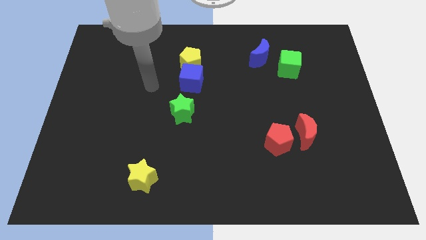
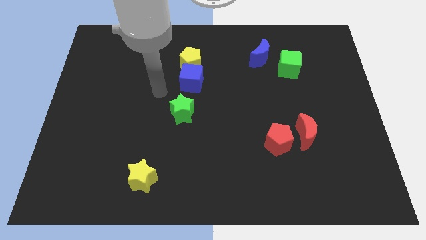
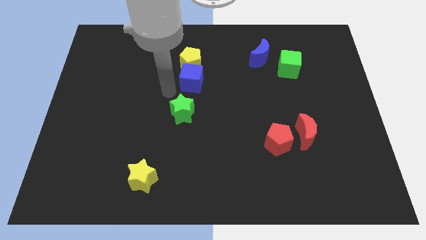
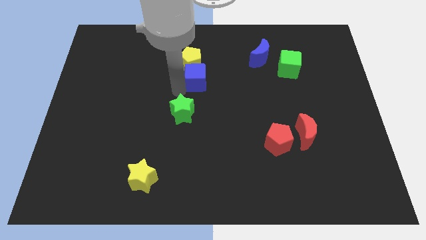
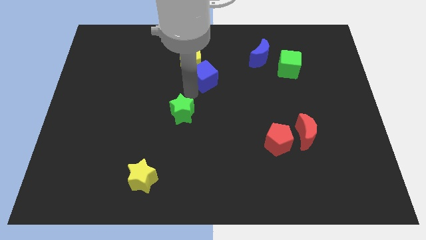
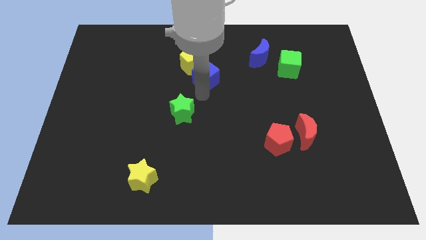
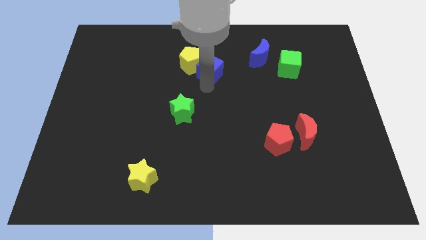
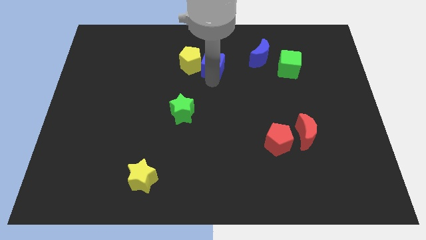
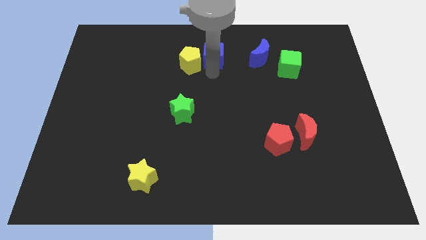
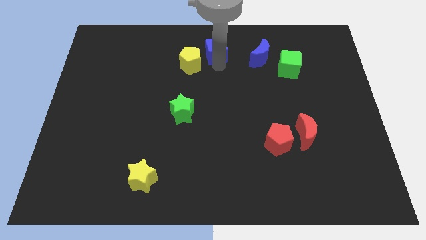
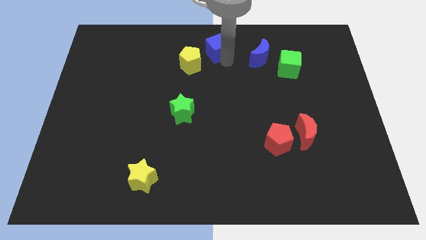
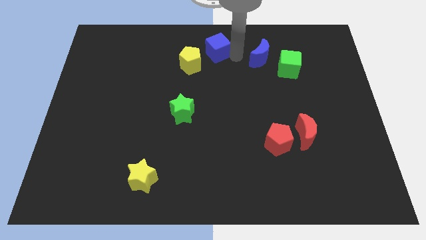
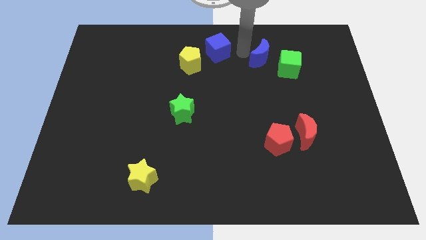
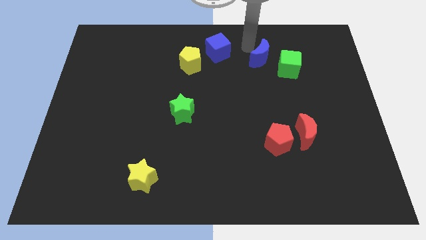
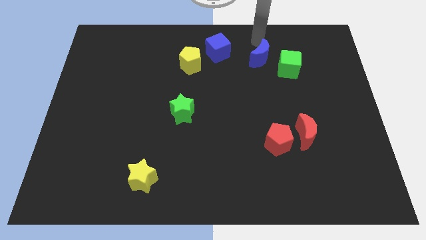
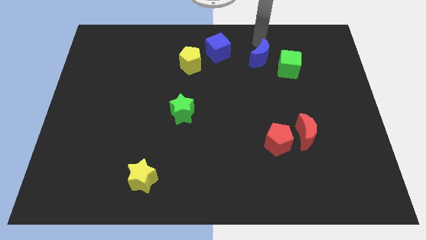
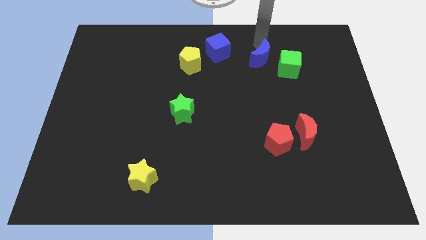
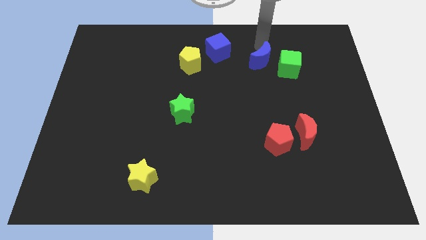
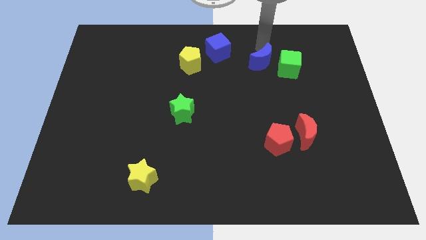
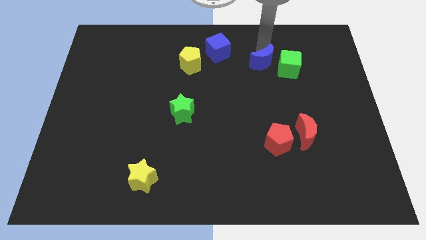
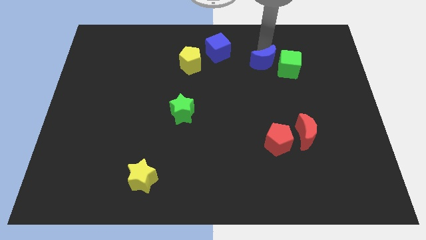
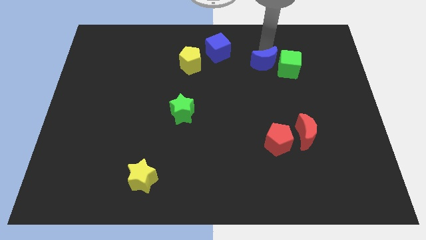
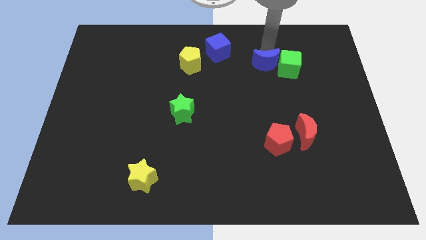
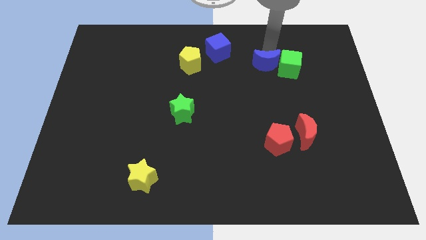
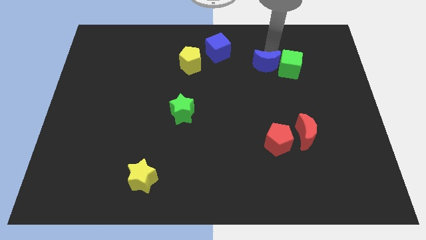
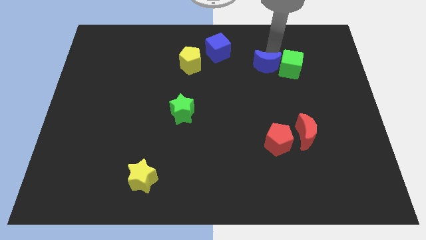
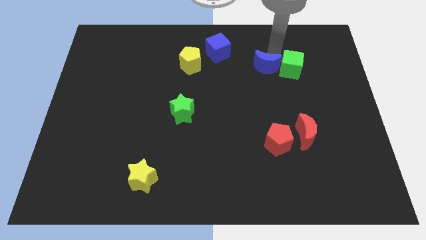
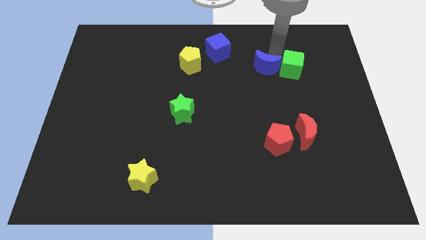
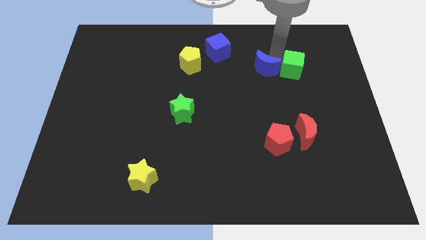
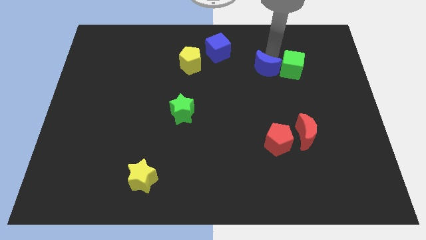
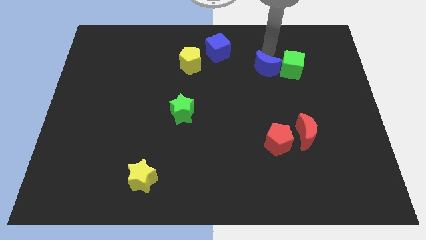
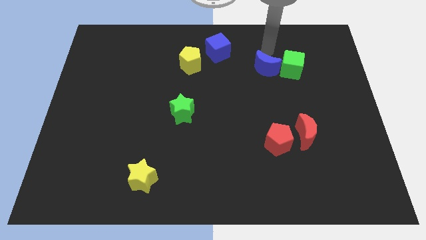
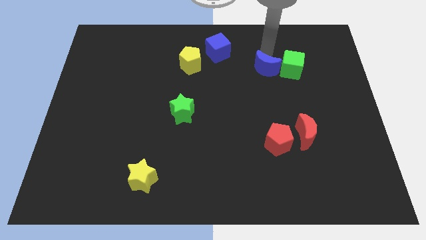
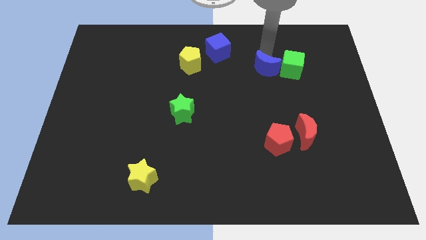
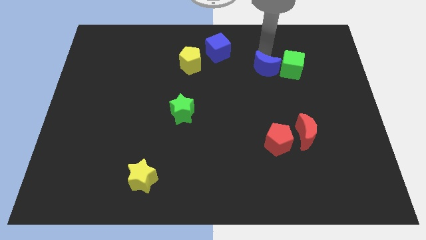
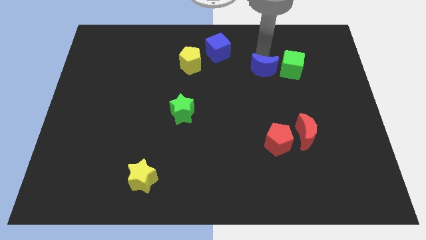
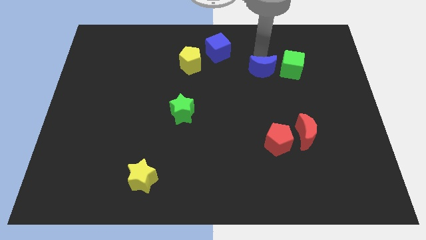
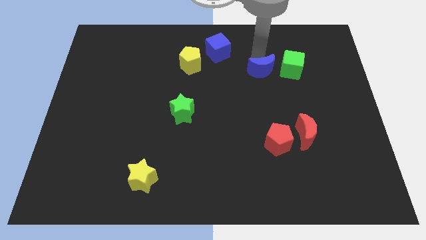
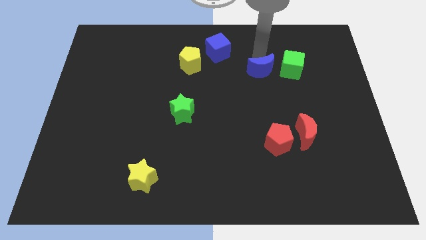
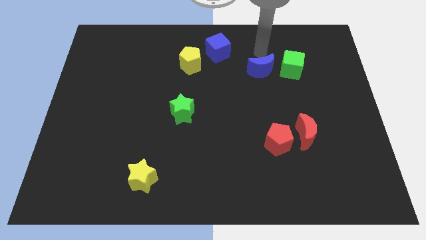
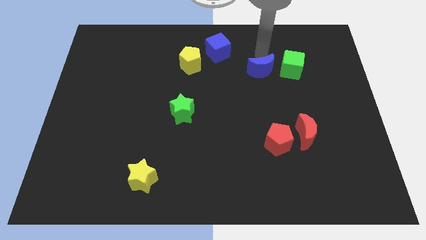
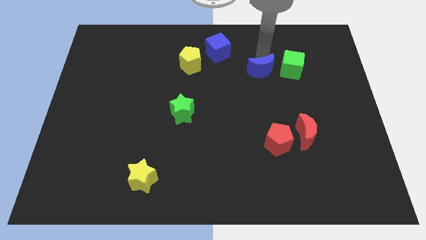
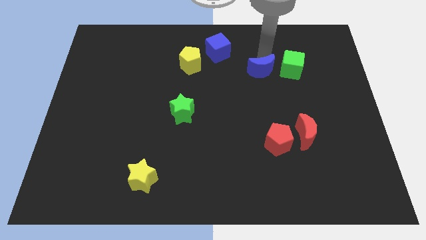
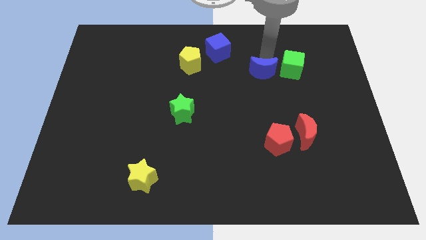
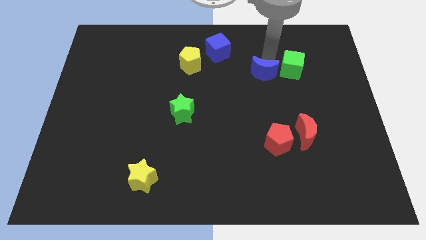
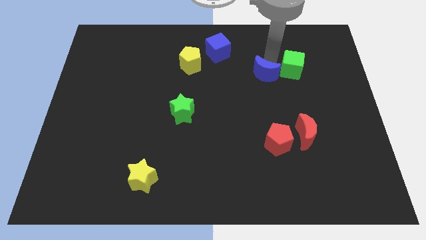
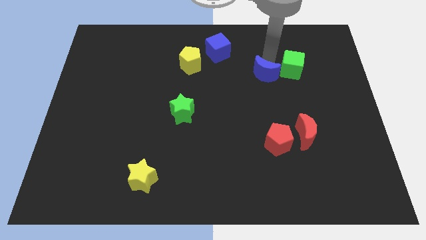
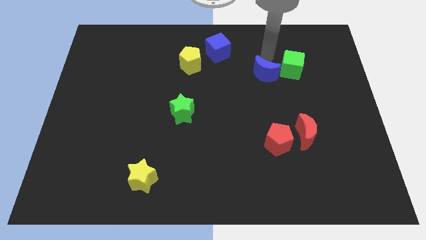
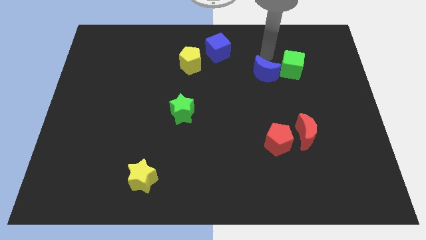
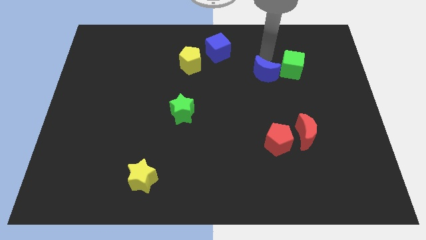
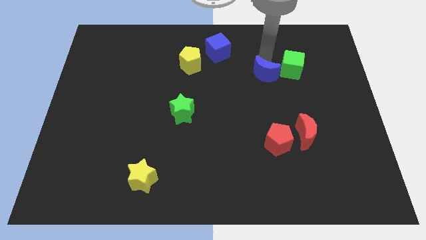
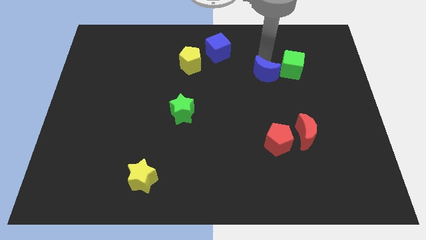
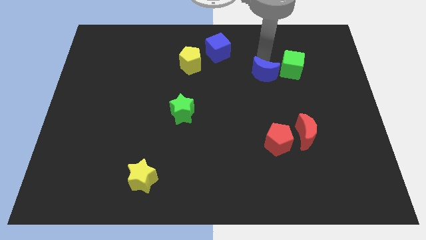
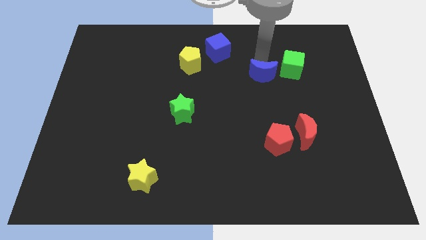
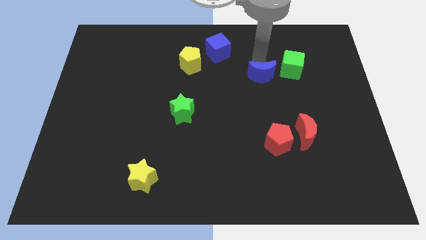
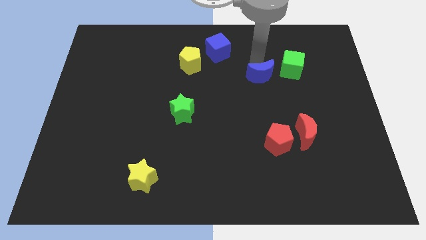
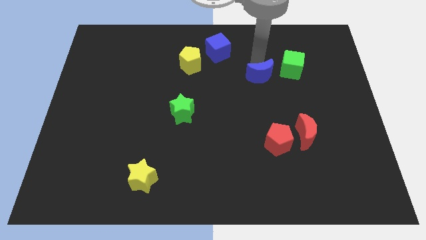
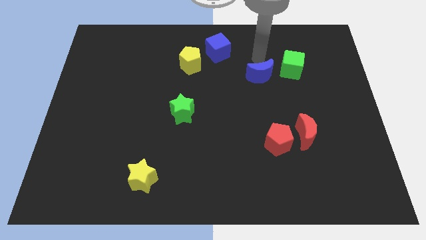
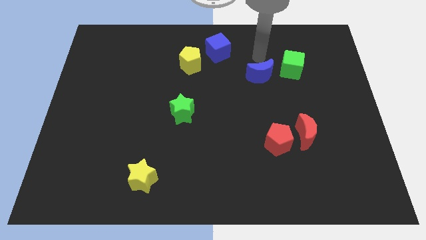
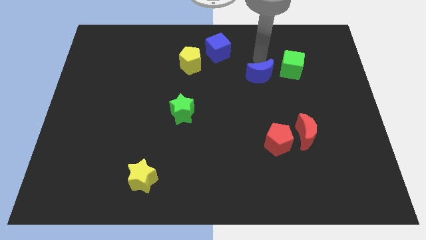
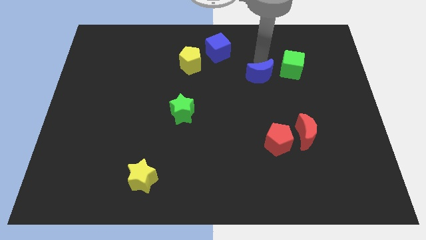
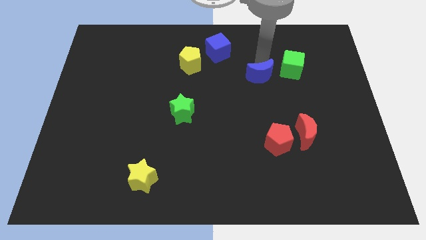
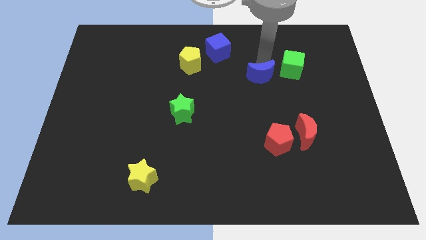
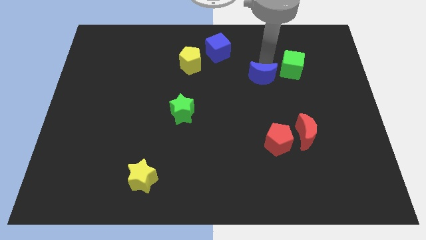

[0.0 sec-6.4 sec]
move the blue moon a little bit down

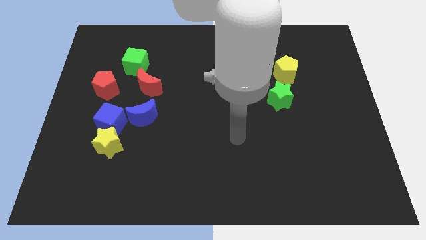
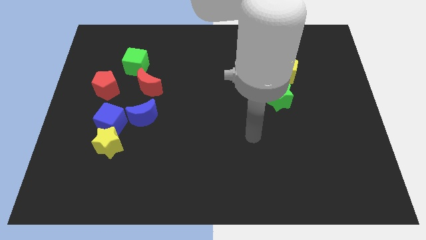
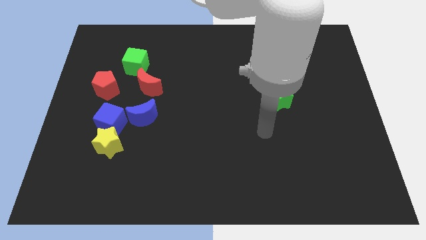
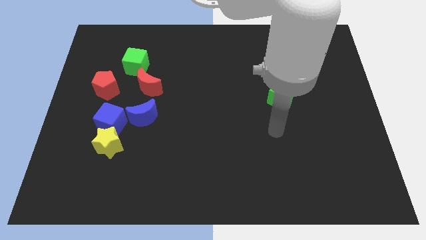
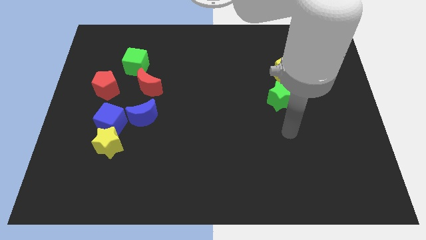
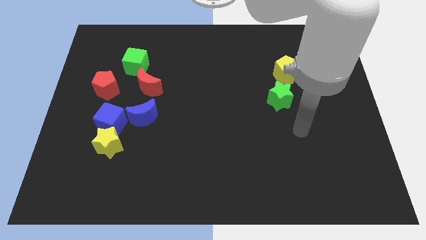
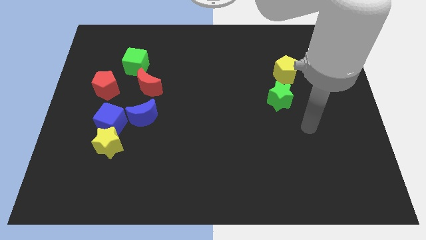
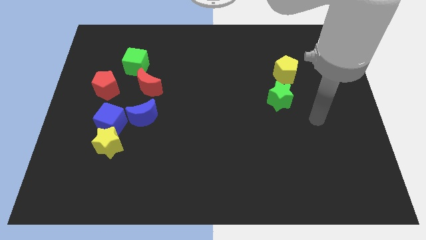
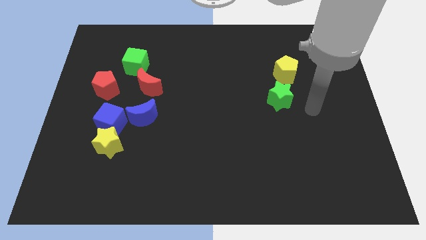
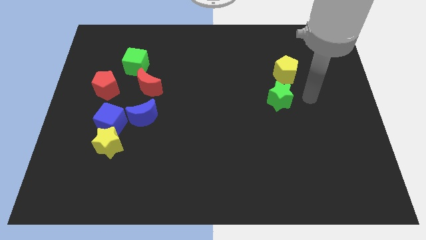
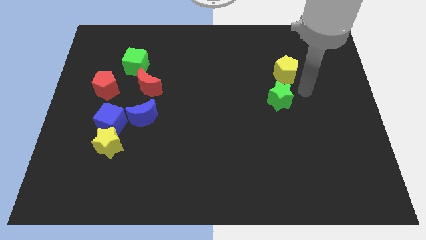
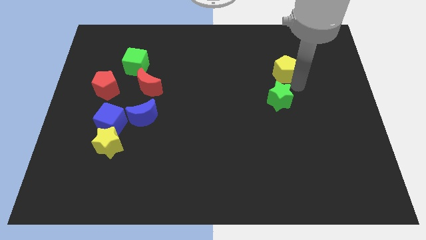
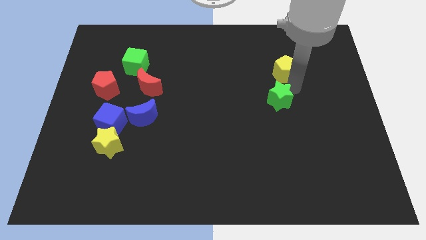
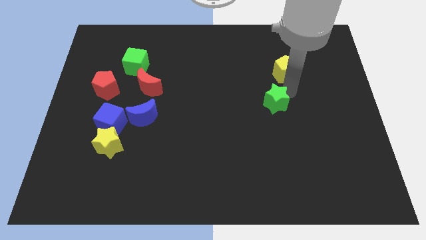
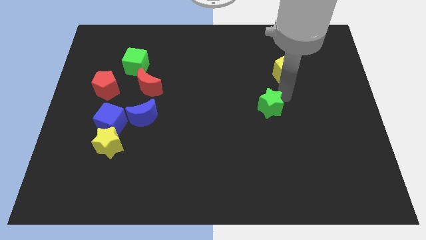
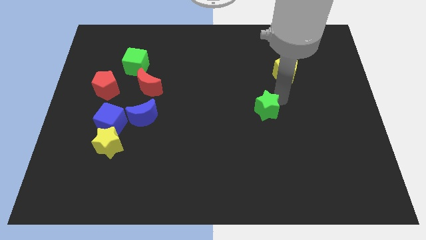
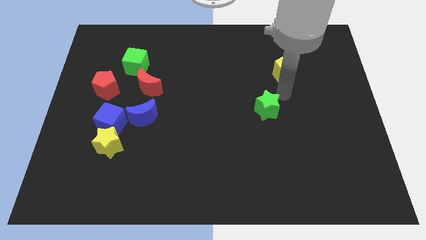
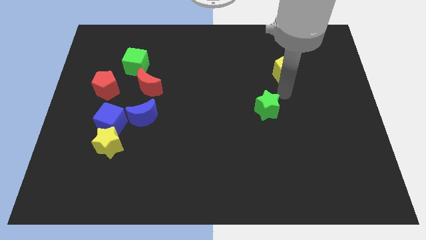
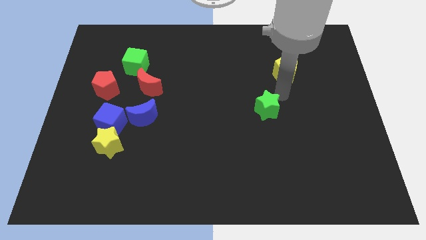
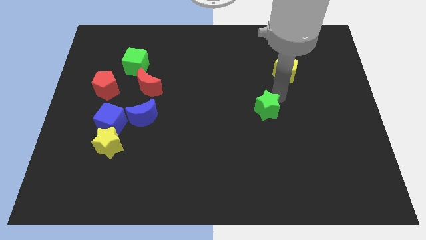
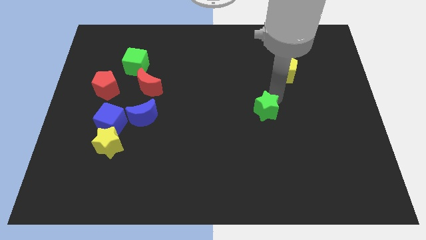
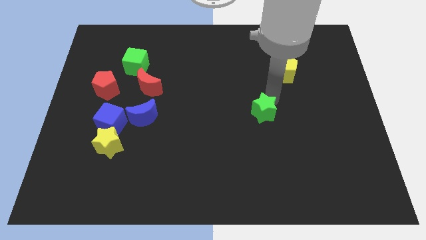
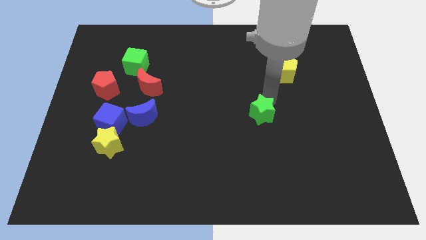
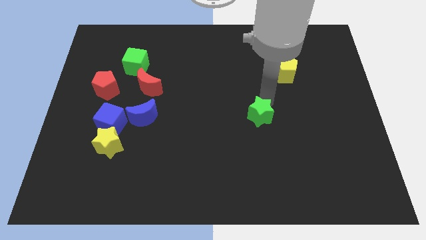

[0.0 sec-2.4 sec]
push the green star a little bit down and left
